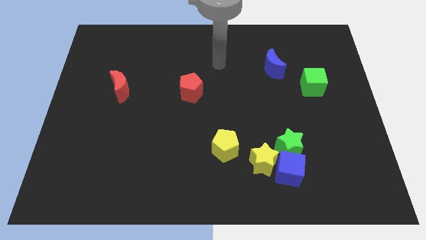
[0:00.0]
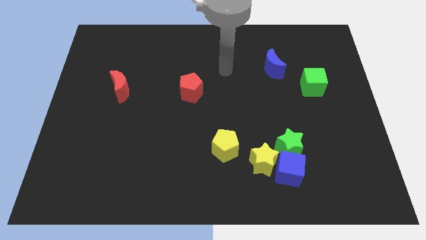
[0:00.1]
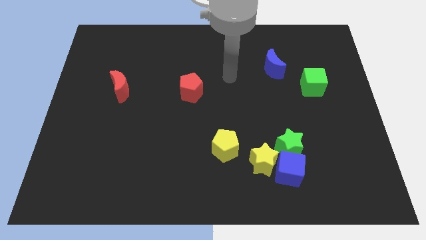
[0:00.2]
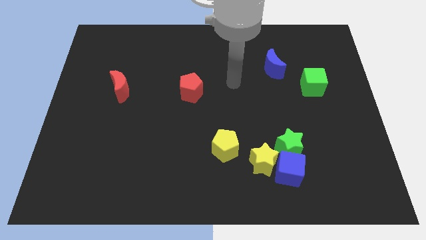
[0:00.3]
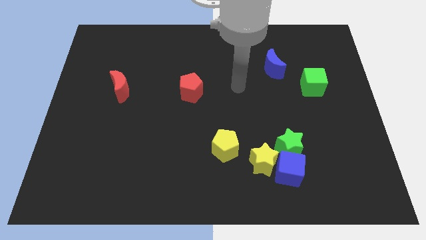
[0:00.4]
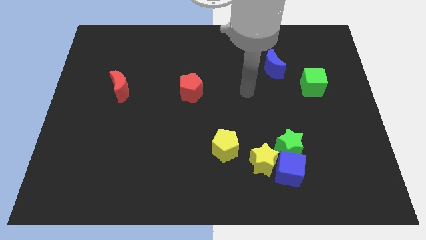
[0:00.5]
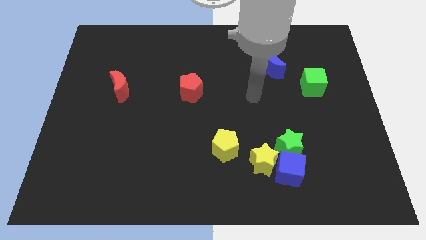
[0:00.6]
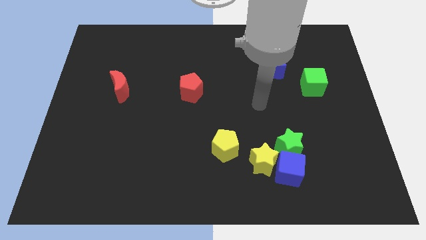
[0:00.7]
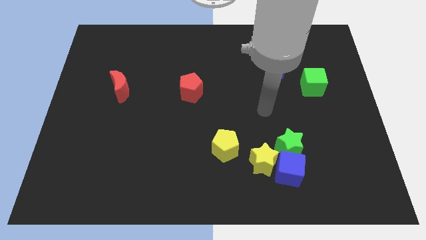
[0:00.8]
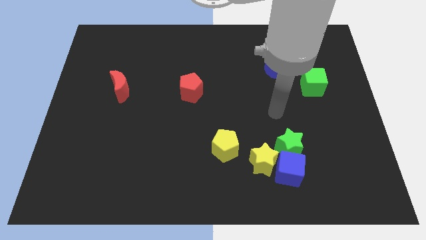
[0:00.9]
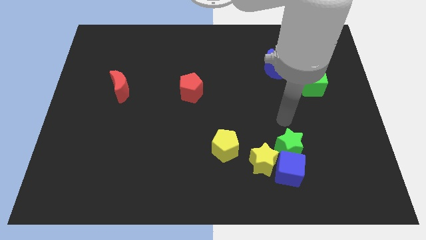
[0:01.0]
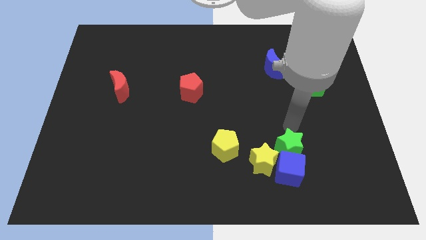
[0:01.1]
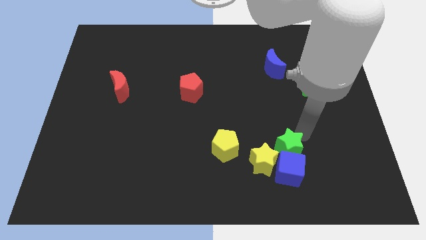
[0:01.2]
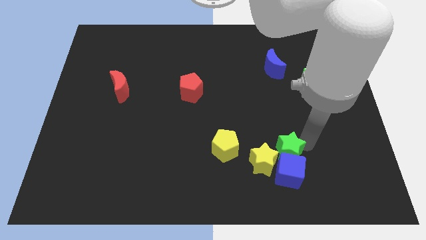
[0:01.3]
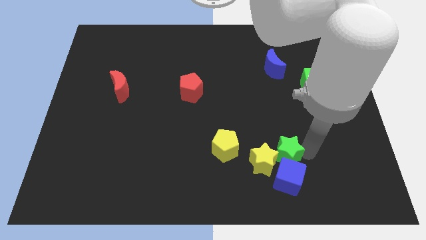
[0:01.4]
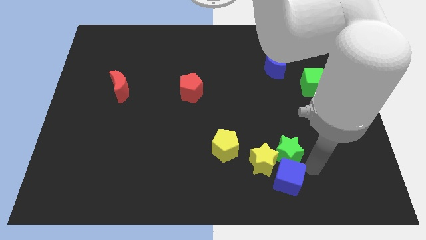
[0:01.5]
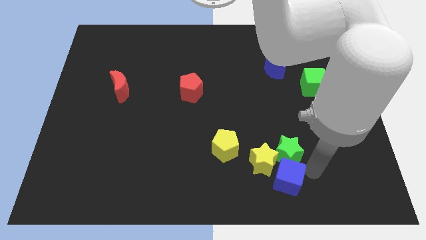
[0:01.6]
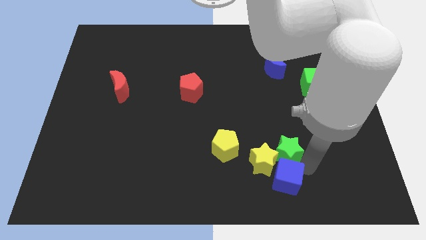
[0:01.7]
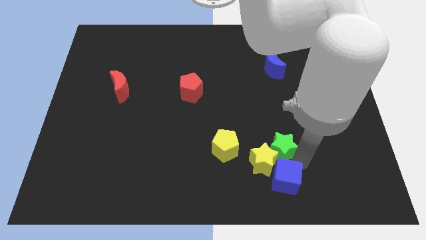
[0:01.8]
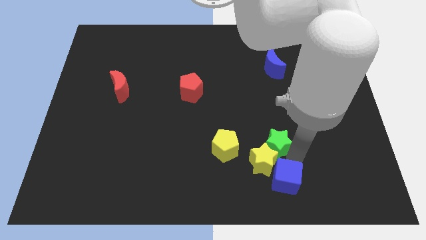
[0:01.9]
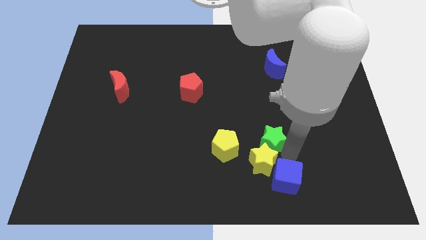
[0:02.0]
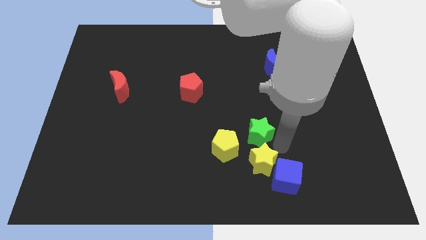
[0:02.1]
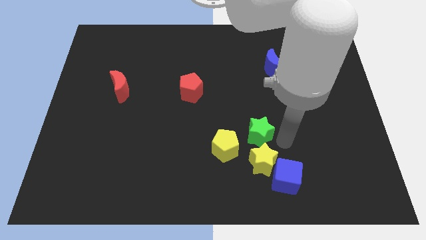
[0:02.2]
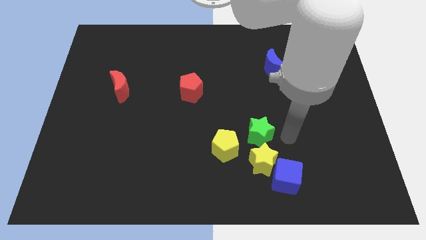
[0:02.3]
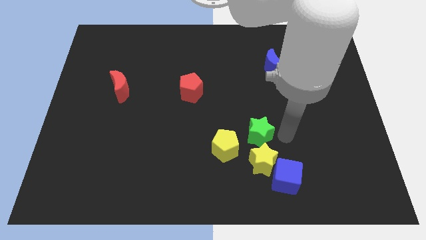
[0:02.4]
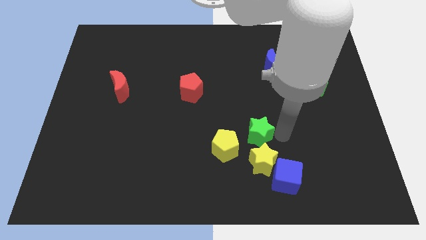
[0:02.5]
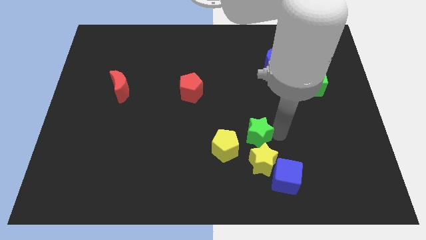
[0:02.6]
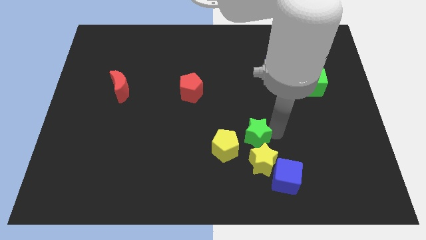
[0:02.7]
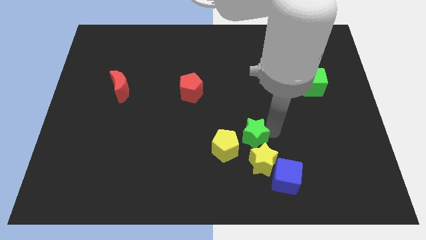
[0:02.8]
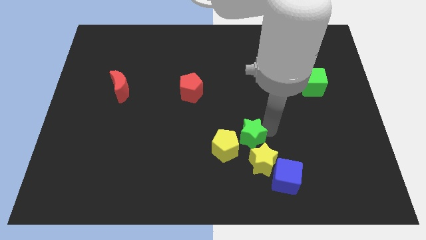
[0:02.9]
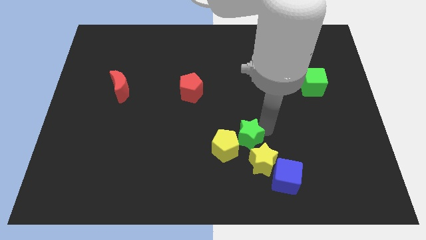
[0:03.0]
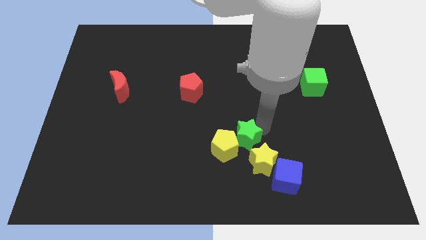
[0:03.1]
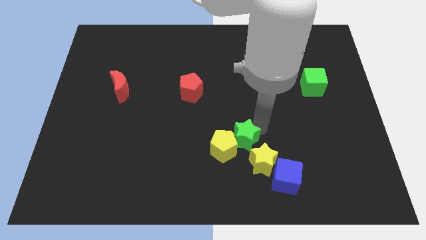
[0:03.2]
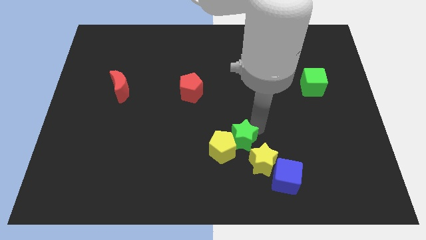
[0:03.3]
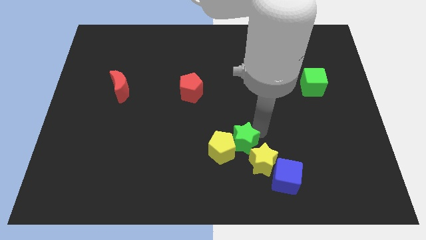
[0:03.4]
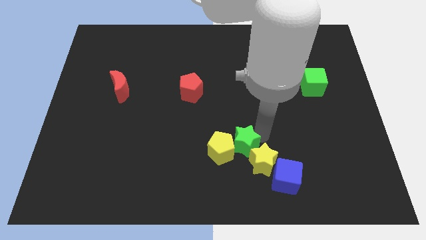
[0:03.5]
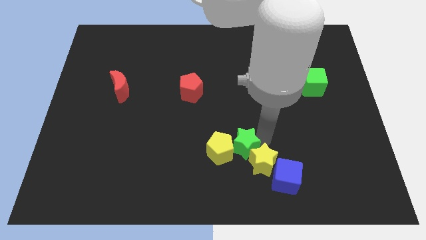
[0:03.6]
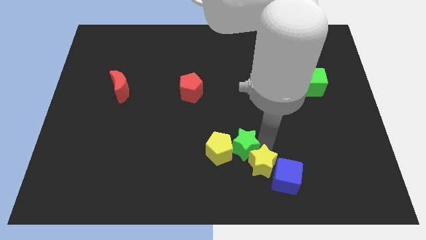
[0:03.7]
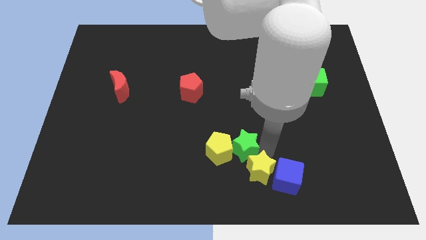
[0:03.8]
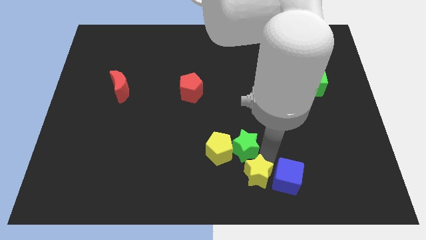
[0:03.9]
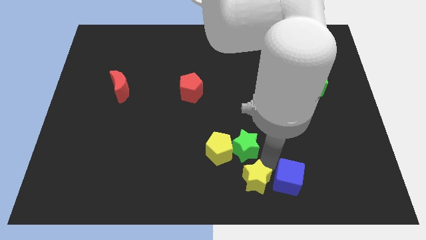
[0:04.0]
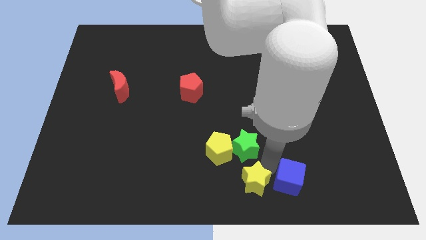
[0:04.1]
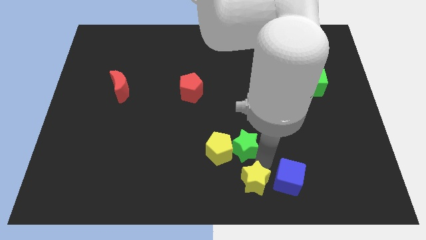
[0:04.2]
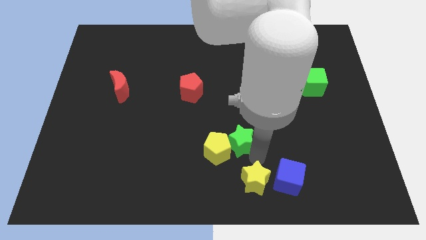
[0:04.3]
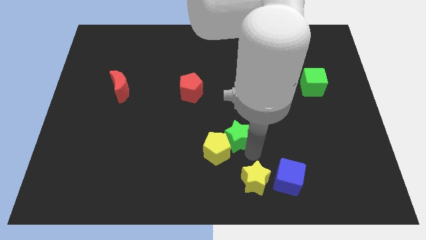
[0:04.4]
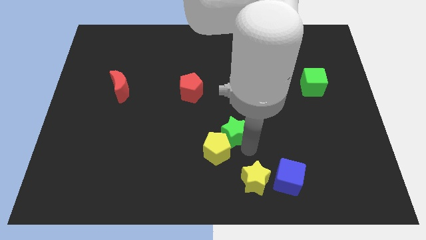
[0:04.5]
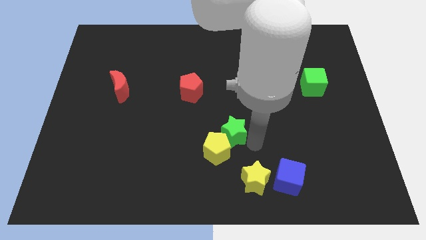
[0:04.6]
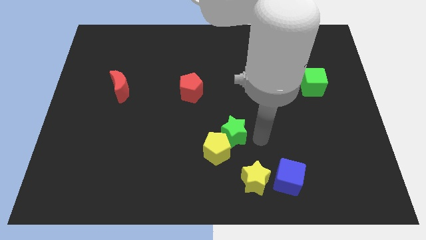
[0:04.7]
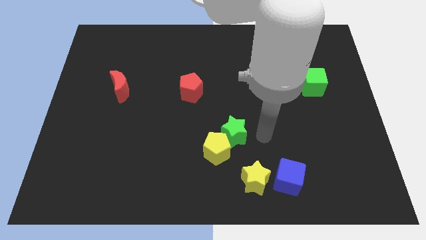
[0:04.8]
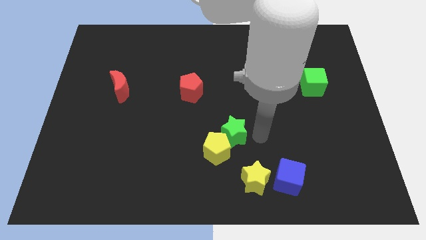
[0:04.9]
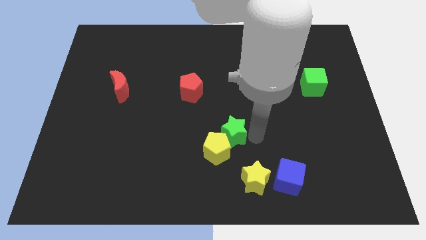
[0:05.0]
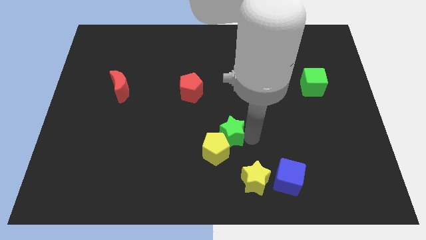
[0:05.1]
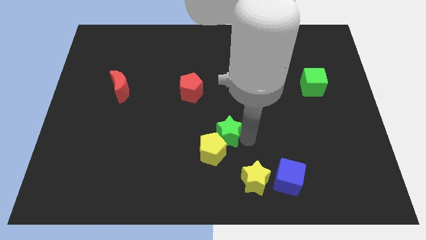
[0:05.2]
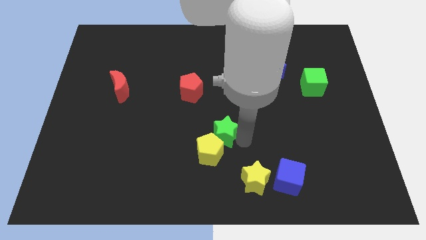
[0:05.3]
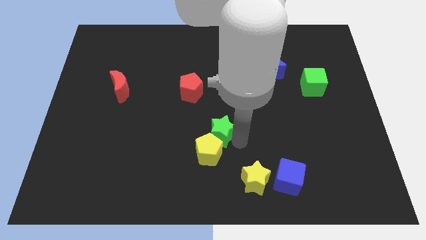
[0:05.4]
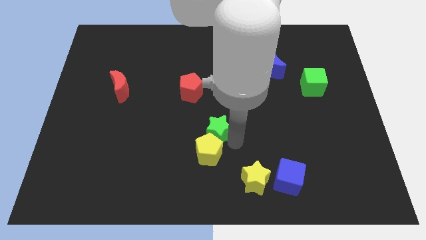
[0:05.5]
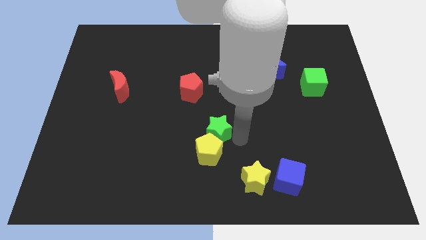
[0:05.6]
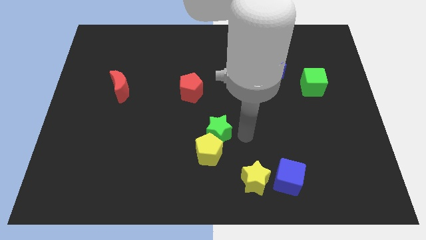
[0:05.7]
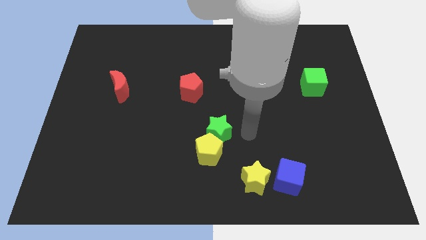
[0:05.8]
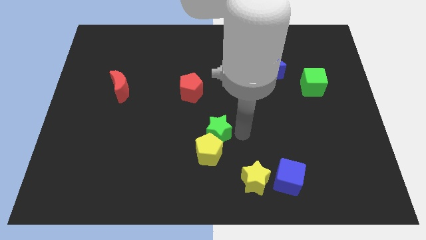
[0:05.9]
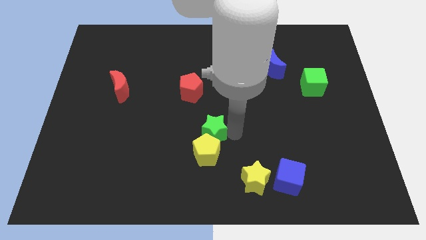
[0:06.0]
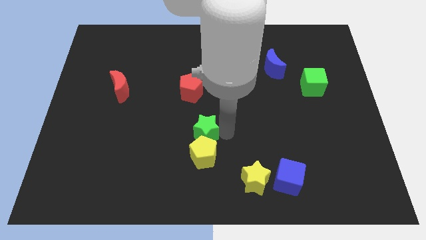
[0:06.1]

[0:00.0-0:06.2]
slide the green star to the top left side of the yellow pentagon

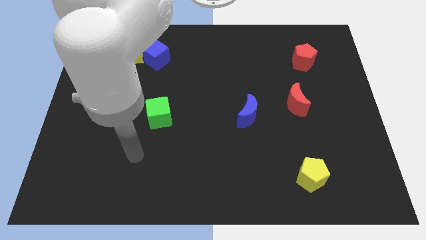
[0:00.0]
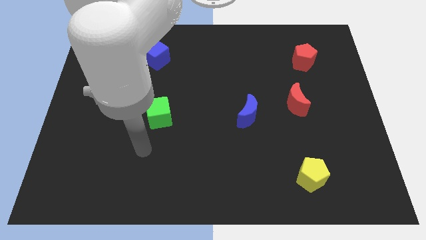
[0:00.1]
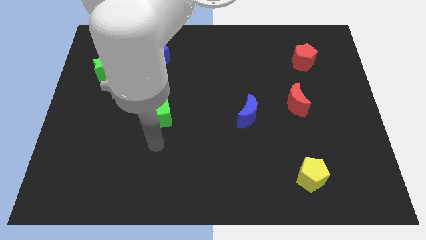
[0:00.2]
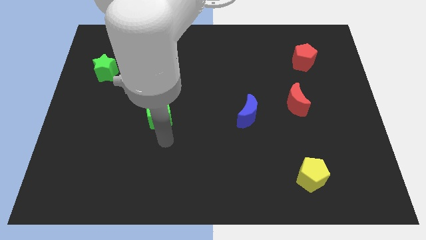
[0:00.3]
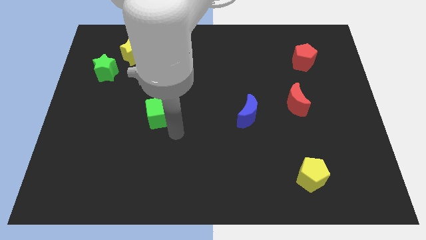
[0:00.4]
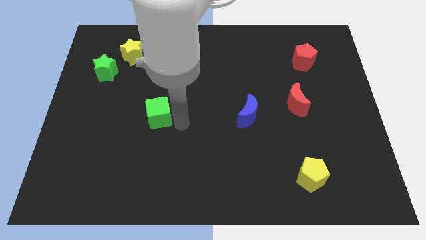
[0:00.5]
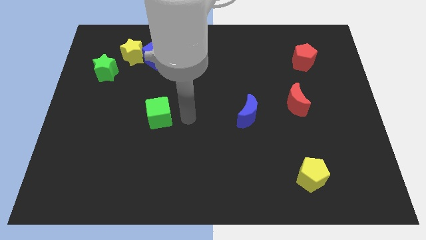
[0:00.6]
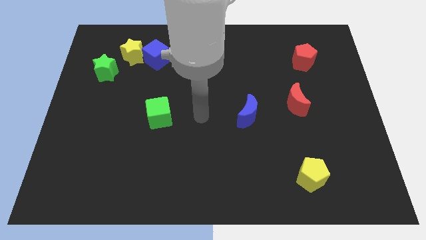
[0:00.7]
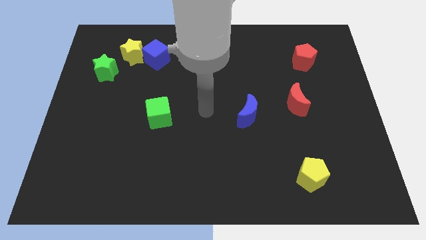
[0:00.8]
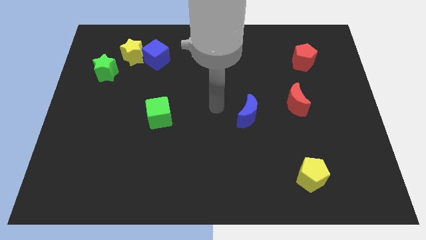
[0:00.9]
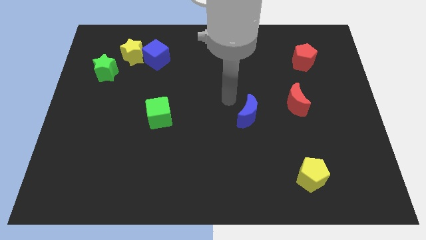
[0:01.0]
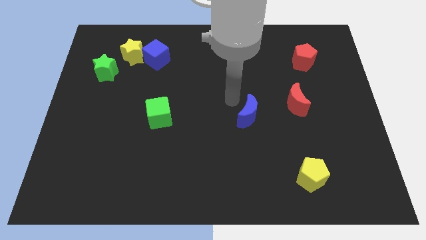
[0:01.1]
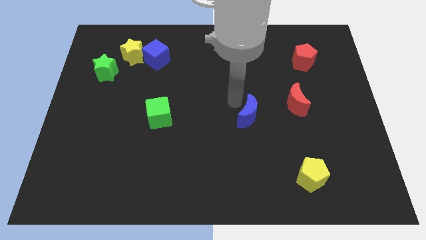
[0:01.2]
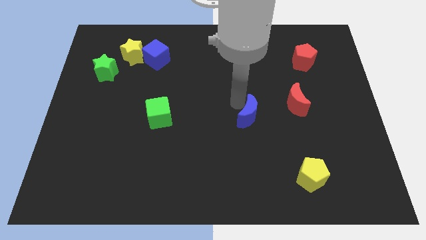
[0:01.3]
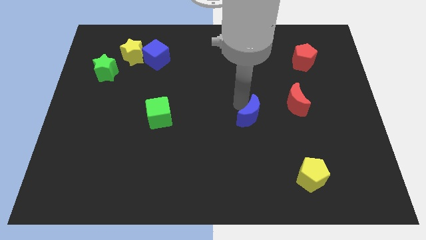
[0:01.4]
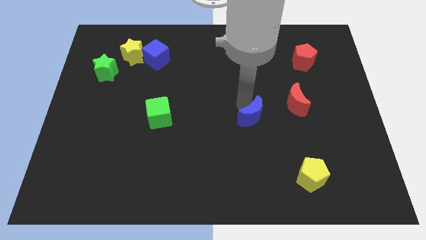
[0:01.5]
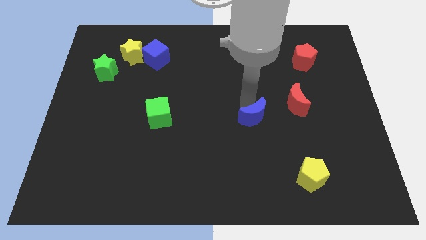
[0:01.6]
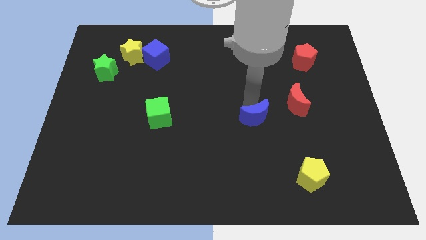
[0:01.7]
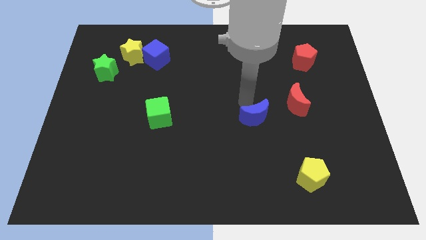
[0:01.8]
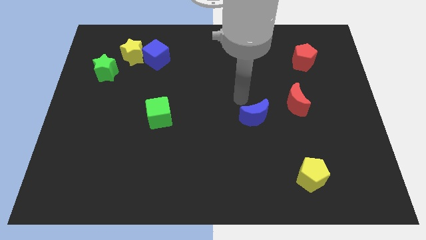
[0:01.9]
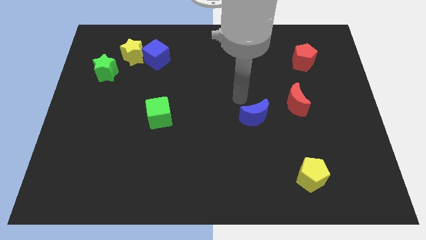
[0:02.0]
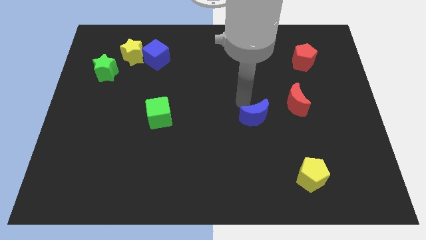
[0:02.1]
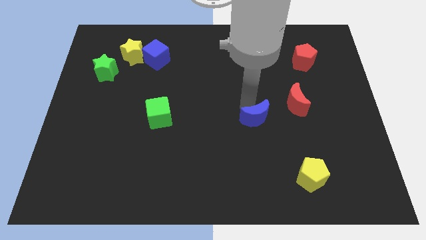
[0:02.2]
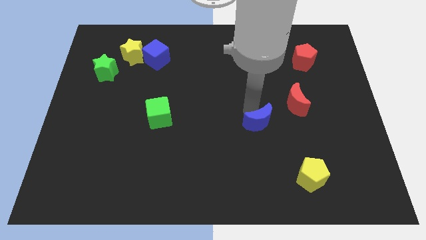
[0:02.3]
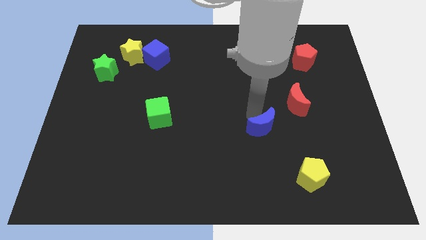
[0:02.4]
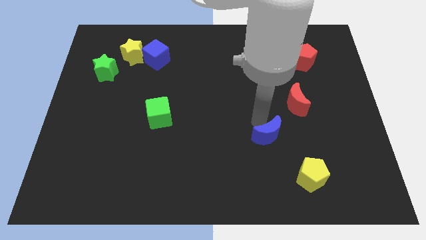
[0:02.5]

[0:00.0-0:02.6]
put the blue moon to the top left of the yellow pentagon
